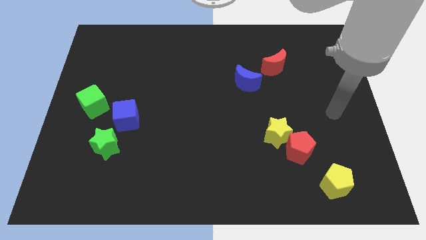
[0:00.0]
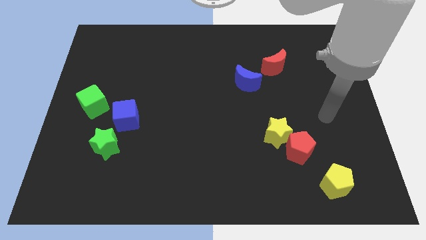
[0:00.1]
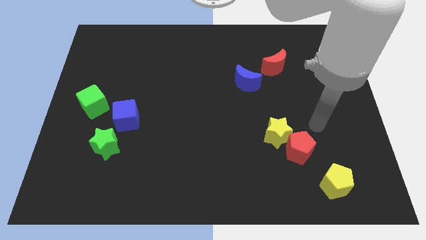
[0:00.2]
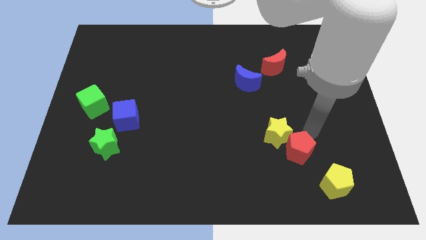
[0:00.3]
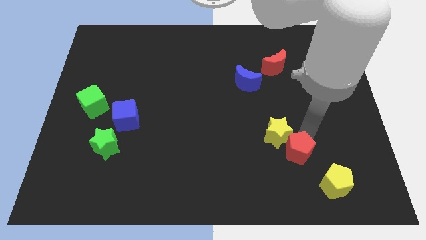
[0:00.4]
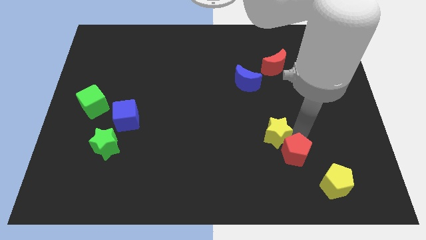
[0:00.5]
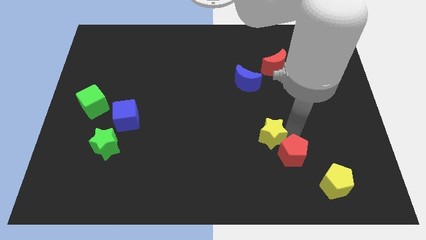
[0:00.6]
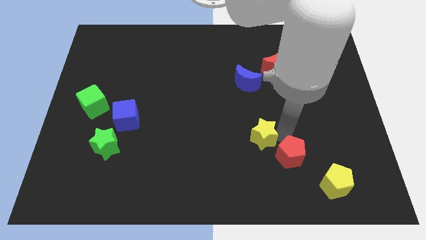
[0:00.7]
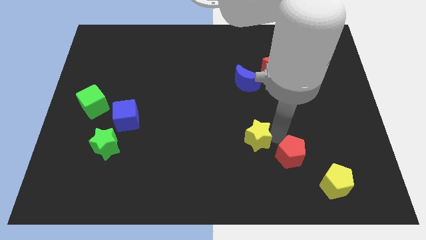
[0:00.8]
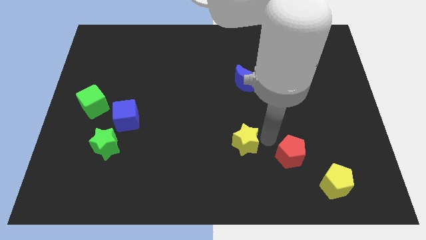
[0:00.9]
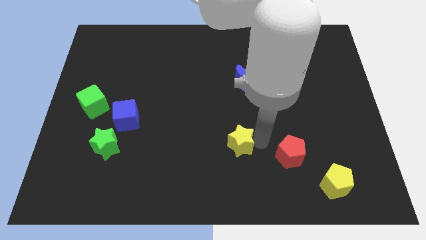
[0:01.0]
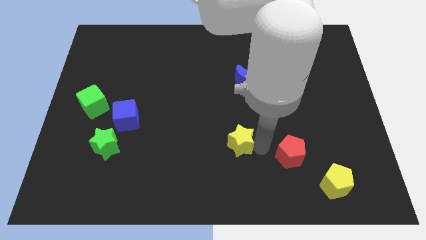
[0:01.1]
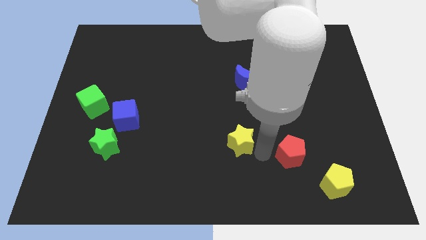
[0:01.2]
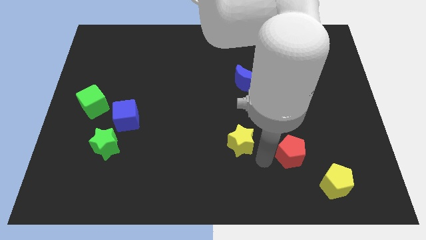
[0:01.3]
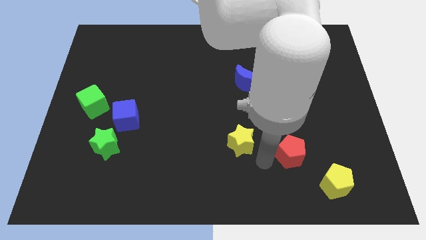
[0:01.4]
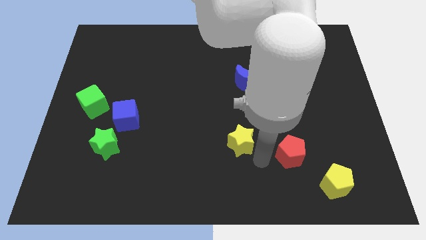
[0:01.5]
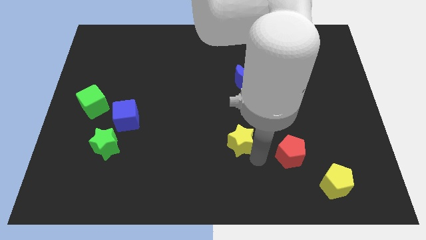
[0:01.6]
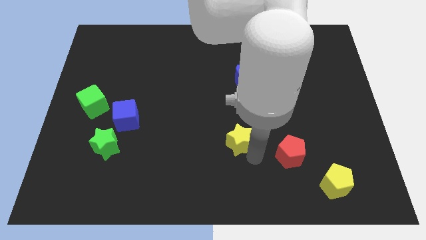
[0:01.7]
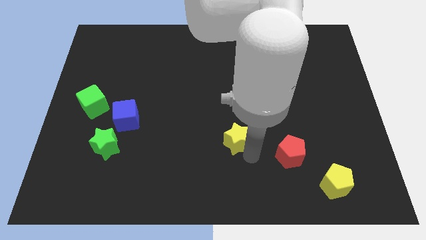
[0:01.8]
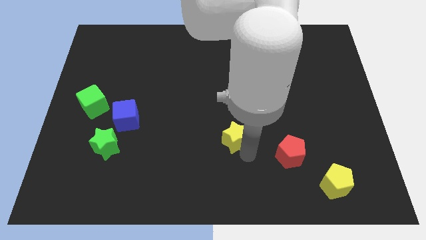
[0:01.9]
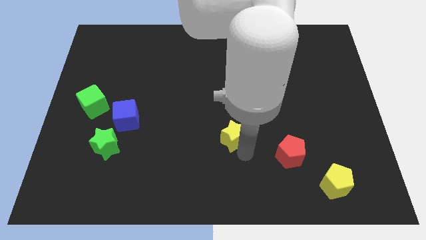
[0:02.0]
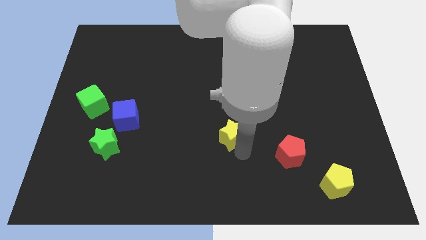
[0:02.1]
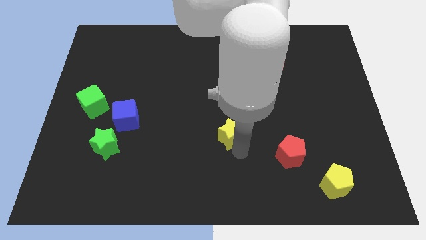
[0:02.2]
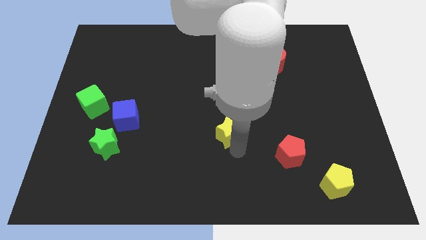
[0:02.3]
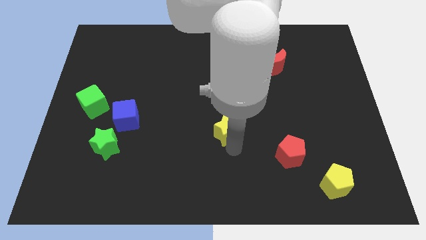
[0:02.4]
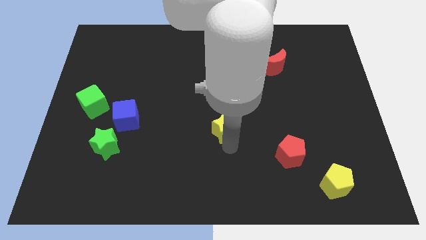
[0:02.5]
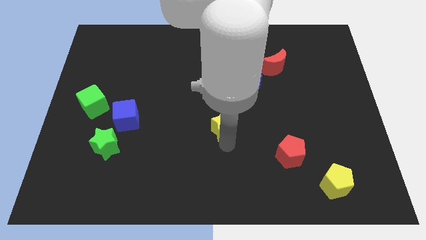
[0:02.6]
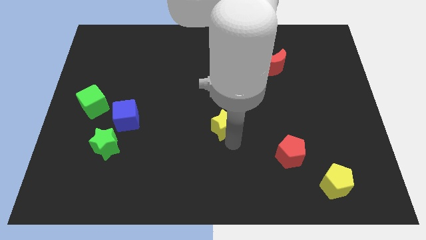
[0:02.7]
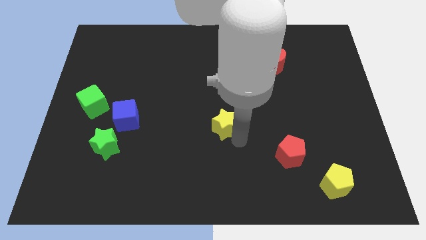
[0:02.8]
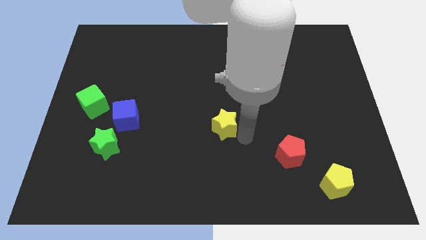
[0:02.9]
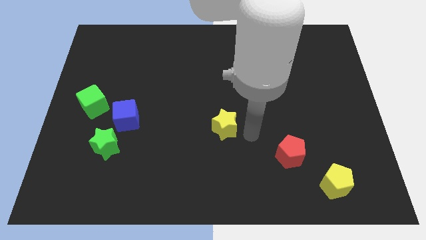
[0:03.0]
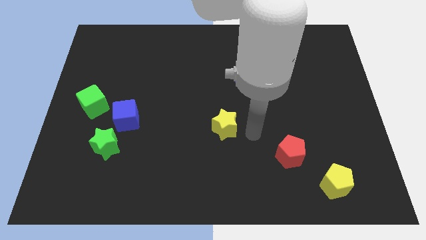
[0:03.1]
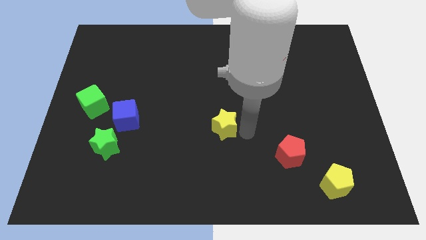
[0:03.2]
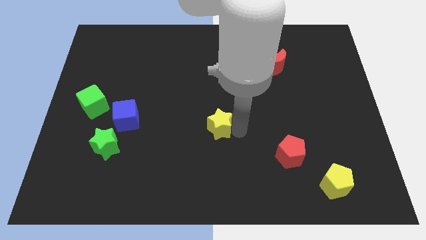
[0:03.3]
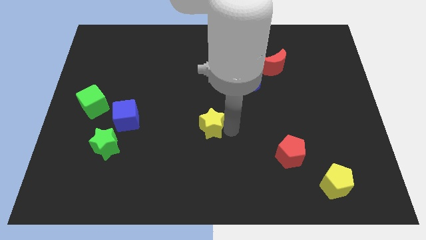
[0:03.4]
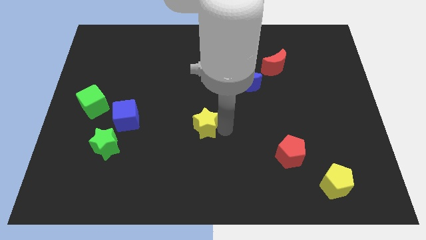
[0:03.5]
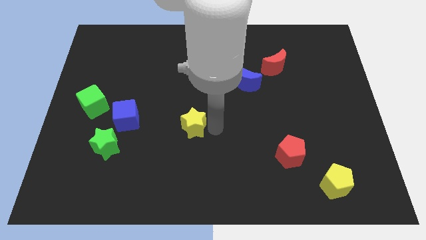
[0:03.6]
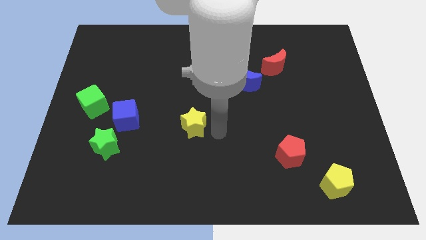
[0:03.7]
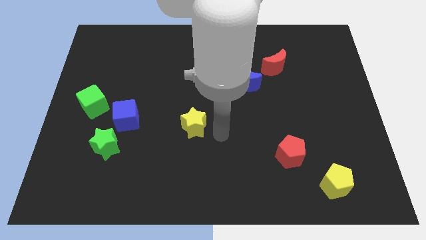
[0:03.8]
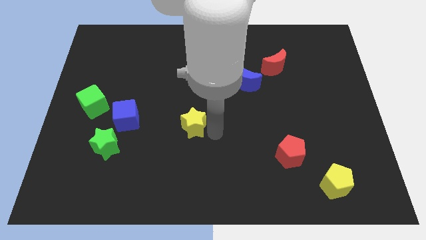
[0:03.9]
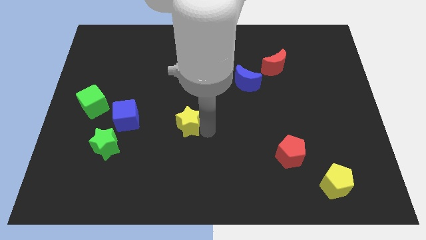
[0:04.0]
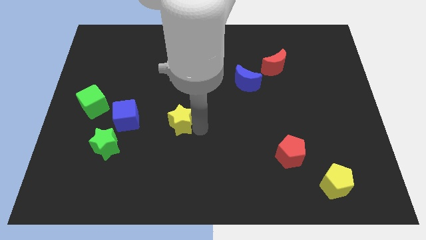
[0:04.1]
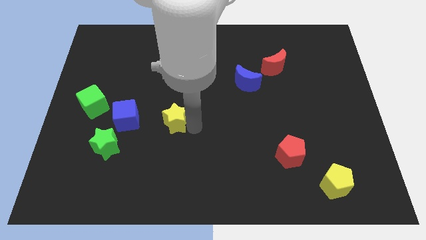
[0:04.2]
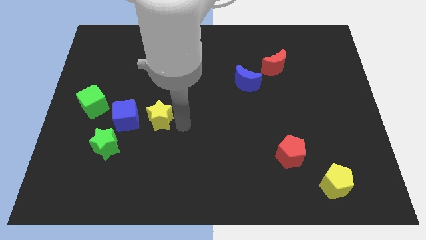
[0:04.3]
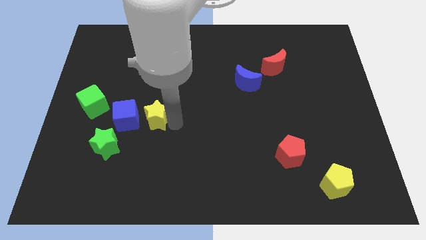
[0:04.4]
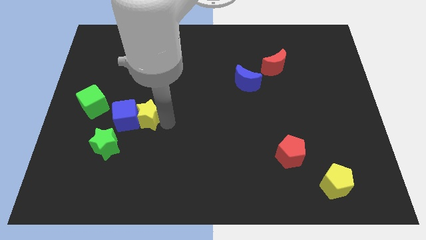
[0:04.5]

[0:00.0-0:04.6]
slide the yellow star to the right of the green cube

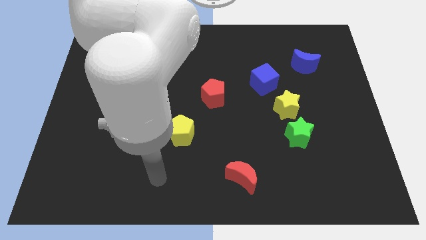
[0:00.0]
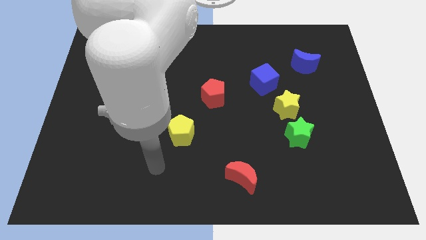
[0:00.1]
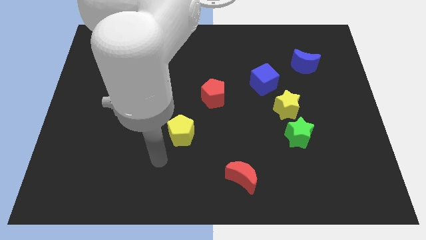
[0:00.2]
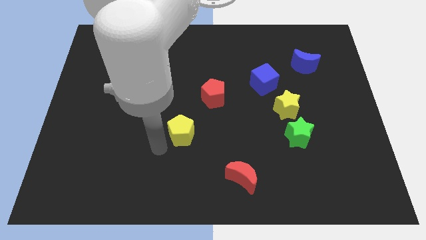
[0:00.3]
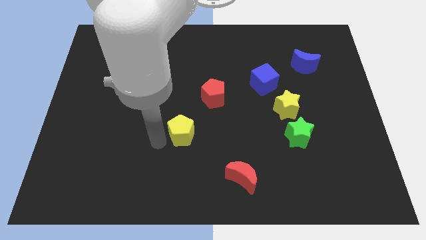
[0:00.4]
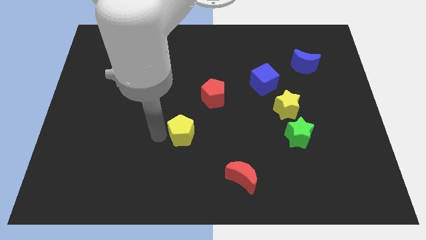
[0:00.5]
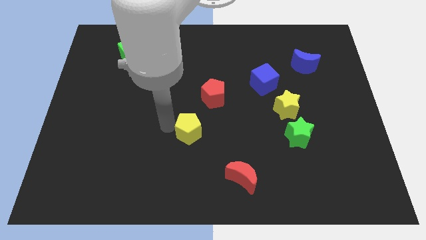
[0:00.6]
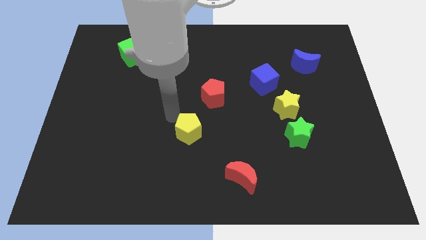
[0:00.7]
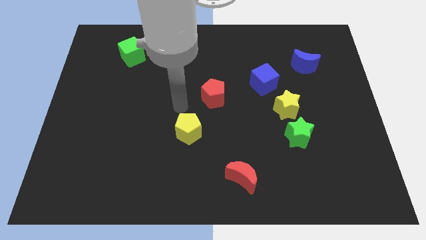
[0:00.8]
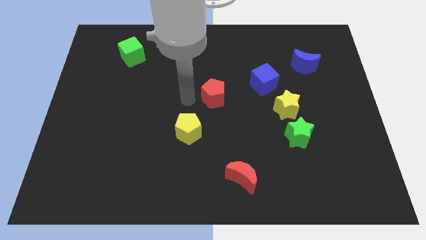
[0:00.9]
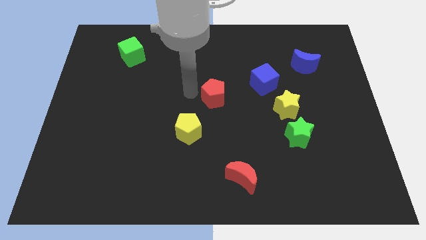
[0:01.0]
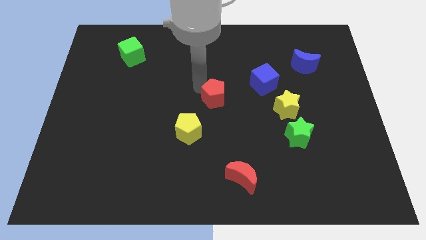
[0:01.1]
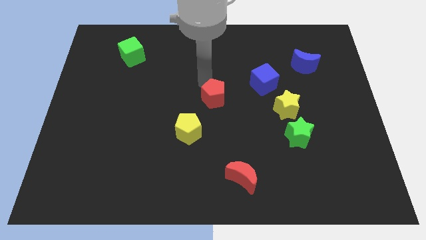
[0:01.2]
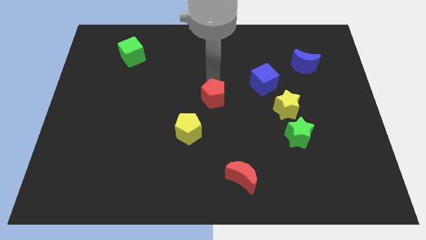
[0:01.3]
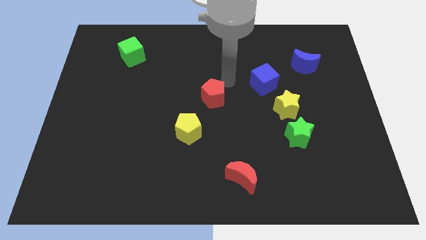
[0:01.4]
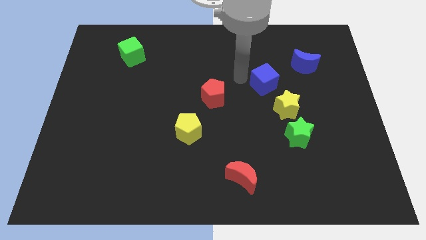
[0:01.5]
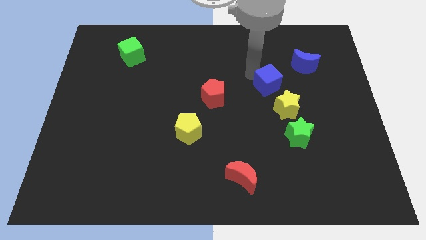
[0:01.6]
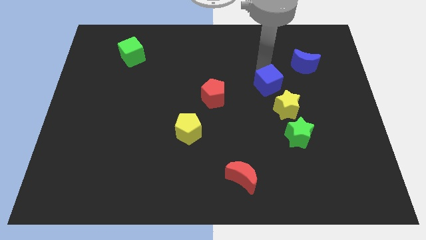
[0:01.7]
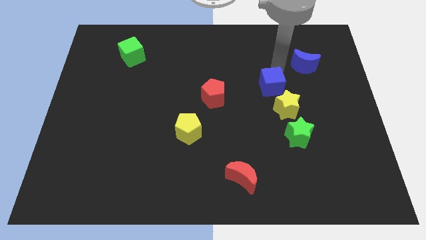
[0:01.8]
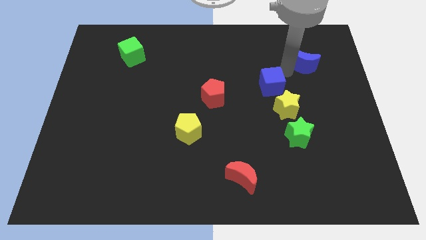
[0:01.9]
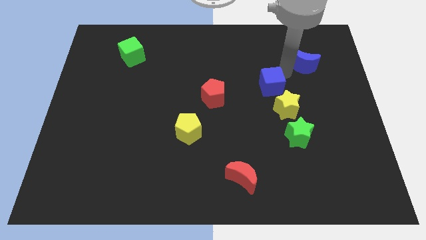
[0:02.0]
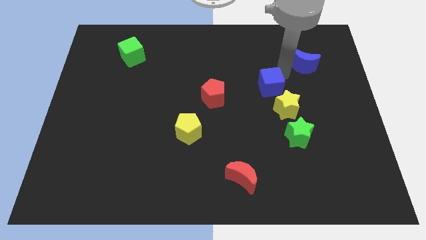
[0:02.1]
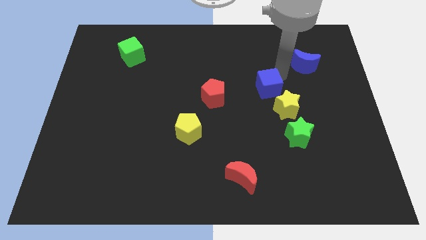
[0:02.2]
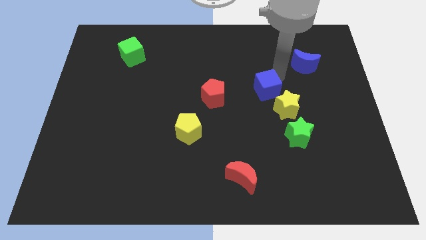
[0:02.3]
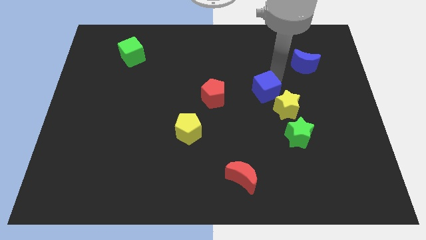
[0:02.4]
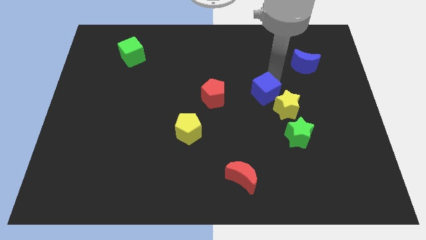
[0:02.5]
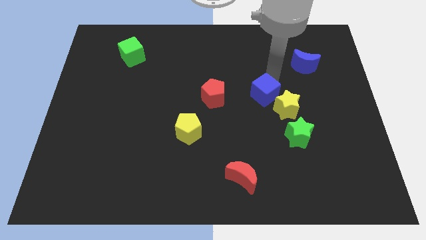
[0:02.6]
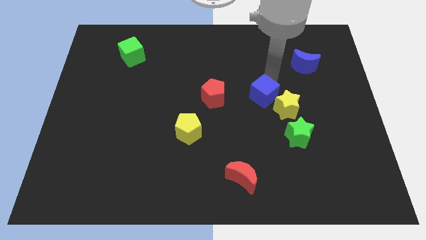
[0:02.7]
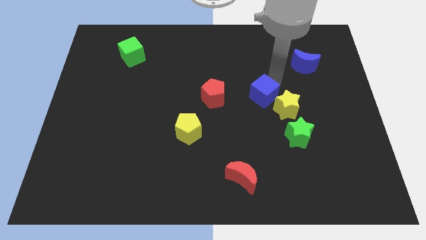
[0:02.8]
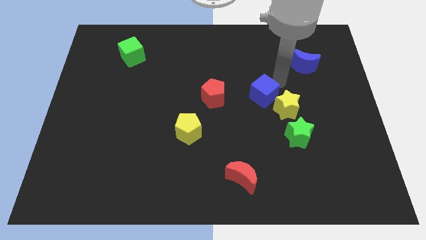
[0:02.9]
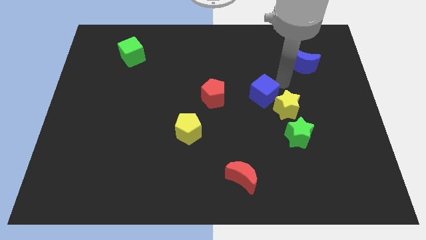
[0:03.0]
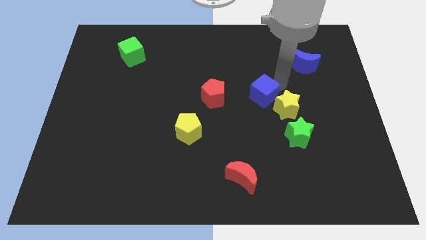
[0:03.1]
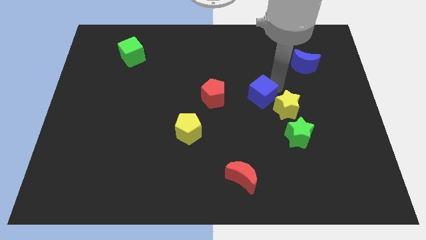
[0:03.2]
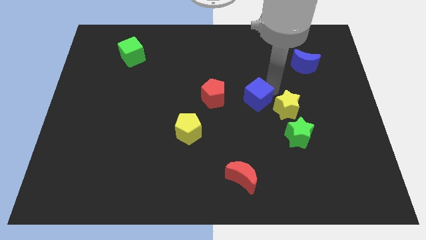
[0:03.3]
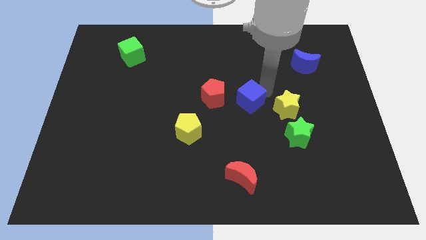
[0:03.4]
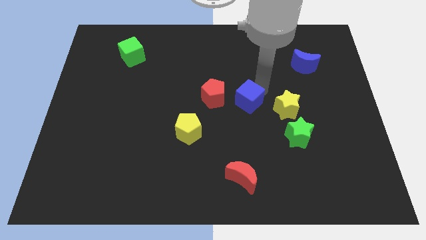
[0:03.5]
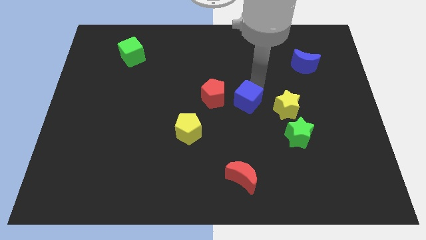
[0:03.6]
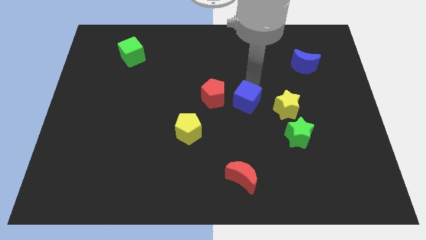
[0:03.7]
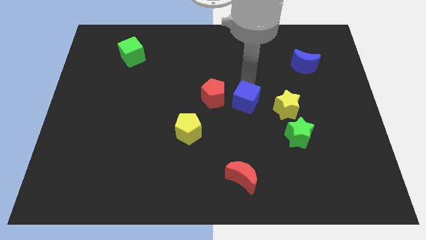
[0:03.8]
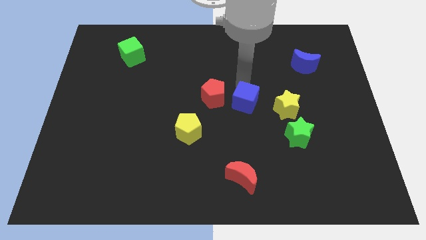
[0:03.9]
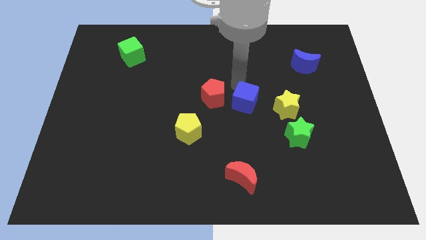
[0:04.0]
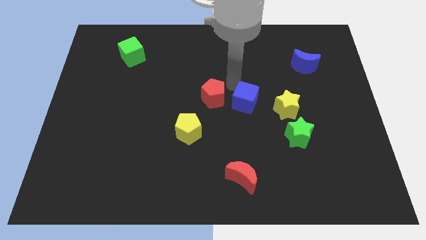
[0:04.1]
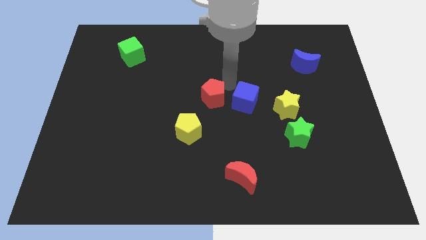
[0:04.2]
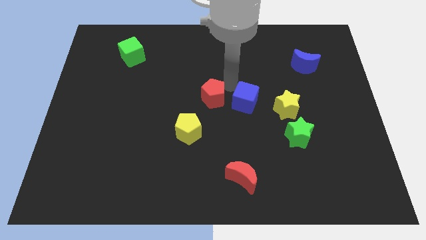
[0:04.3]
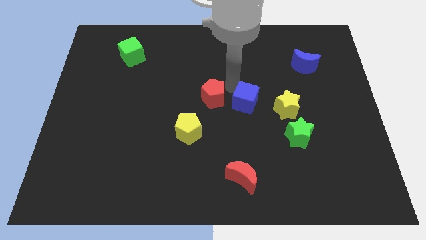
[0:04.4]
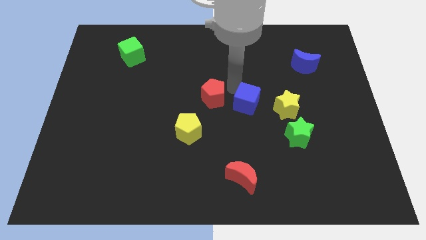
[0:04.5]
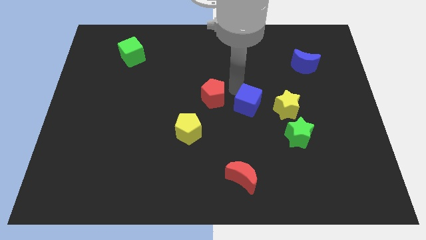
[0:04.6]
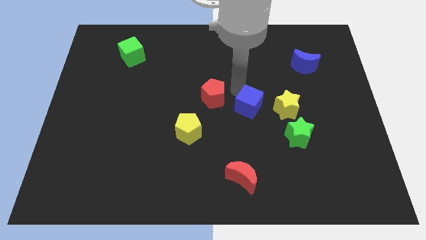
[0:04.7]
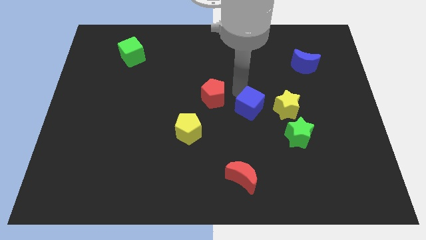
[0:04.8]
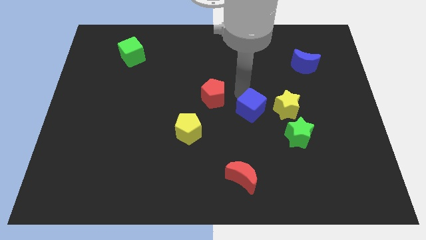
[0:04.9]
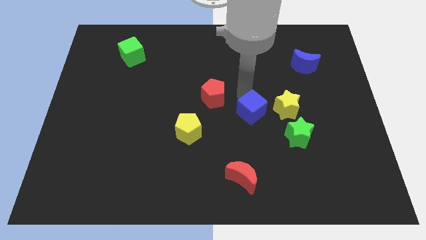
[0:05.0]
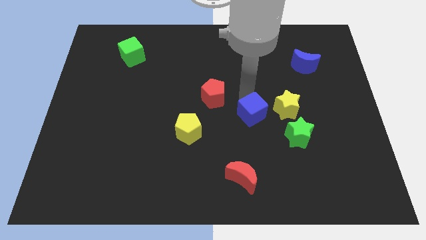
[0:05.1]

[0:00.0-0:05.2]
slide the blue cube to the bottom left of the yellow star
